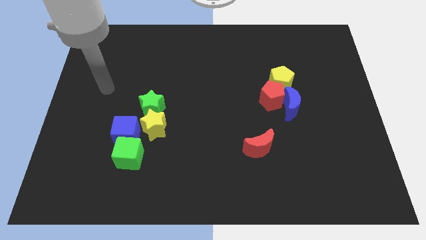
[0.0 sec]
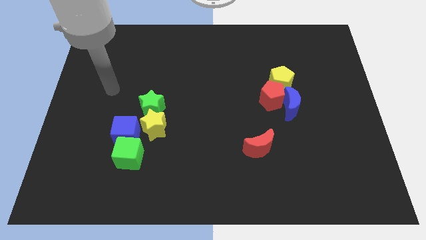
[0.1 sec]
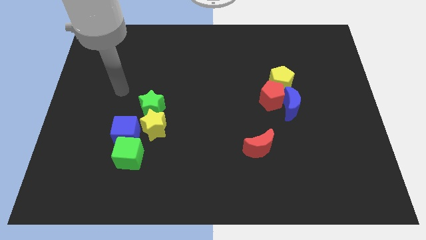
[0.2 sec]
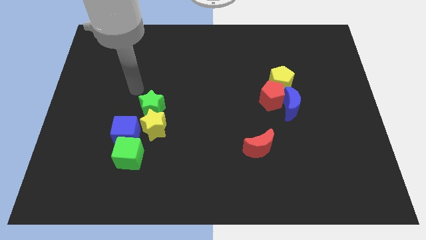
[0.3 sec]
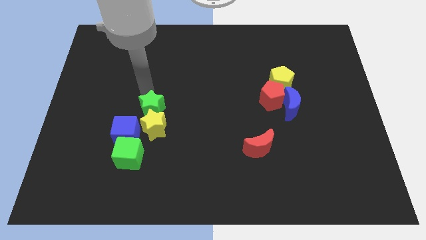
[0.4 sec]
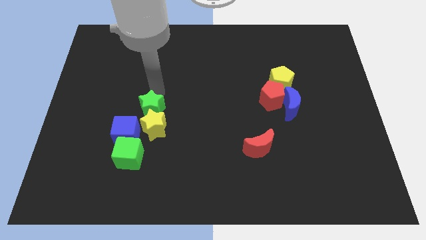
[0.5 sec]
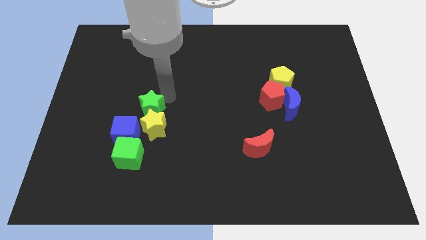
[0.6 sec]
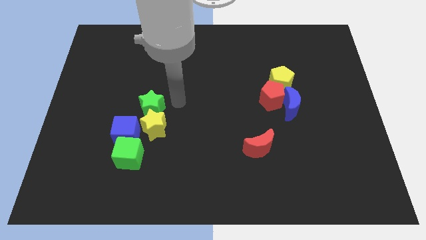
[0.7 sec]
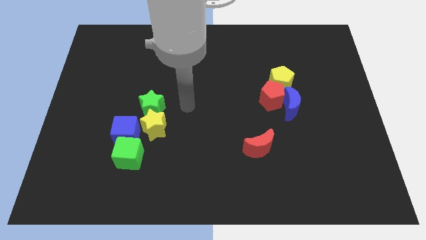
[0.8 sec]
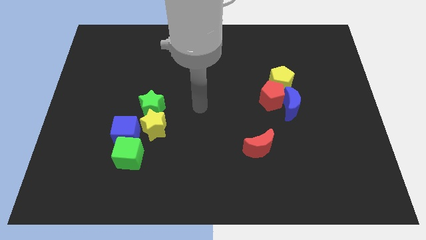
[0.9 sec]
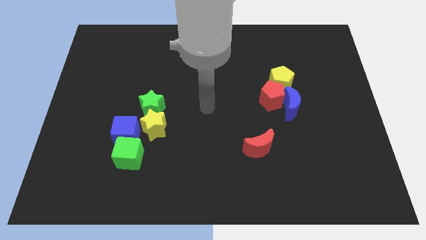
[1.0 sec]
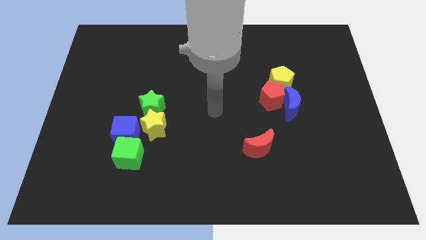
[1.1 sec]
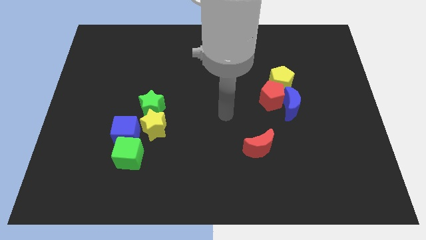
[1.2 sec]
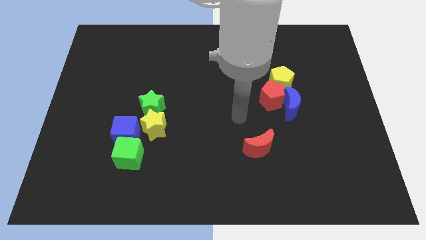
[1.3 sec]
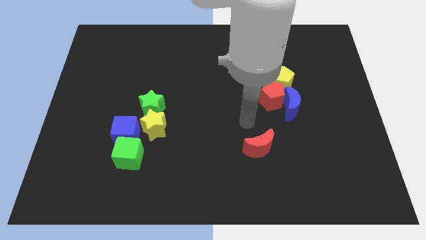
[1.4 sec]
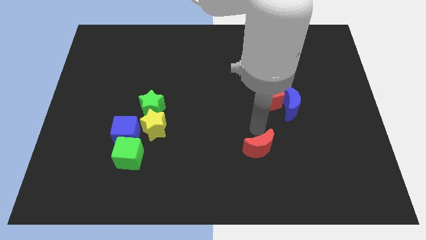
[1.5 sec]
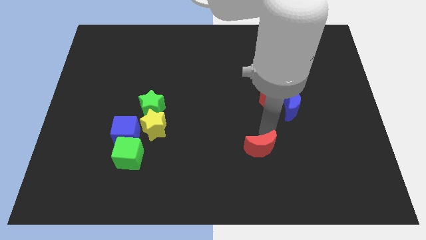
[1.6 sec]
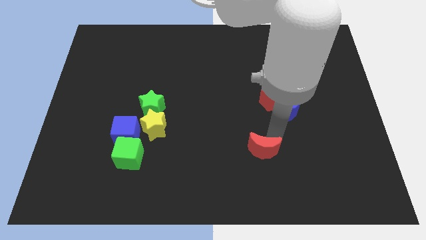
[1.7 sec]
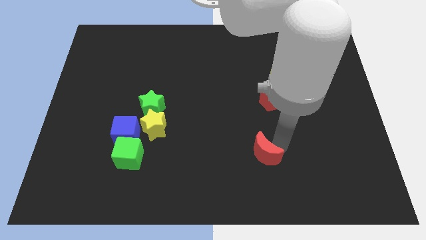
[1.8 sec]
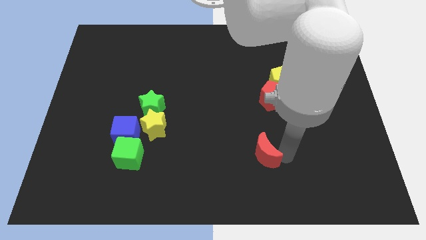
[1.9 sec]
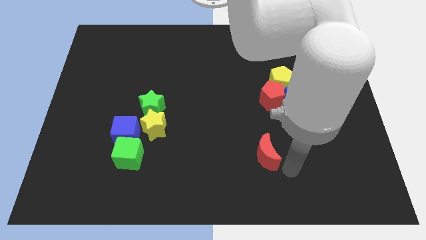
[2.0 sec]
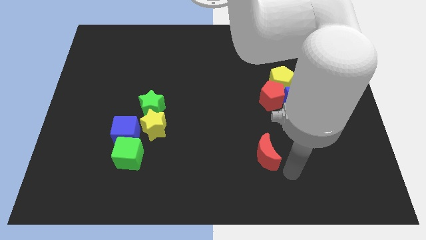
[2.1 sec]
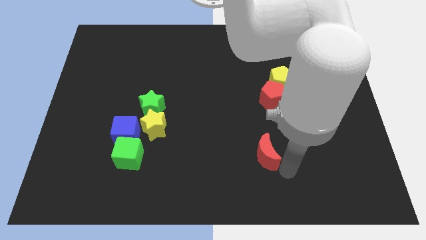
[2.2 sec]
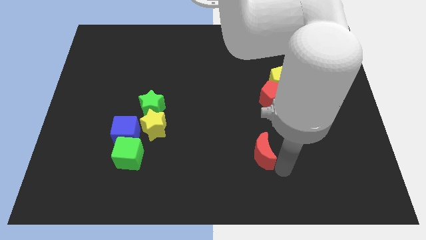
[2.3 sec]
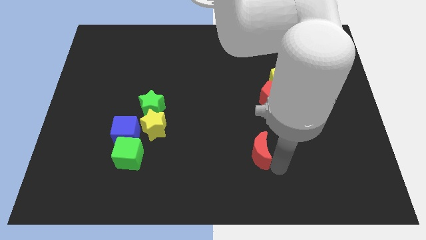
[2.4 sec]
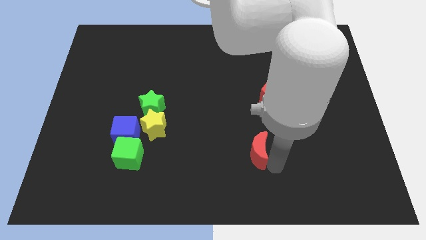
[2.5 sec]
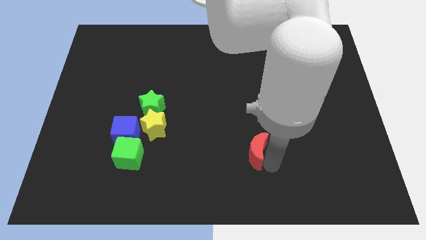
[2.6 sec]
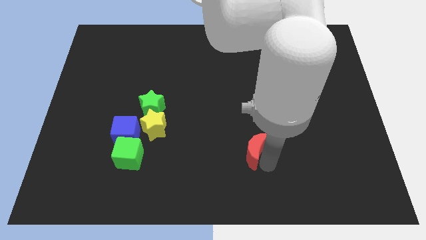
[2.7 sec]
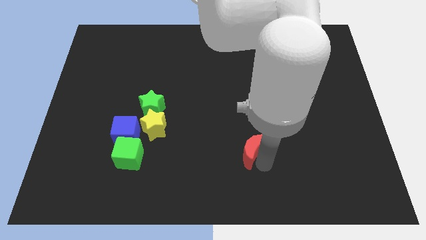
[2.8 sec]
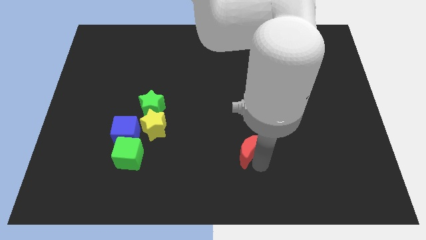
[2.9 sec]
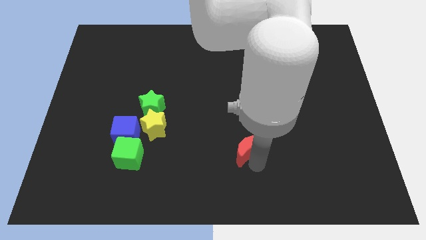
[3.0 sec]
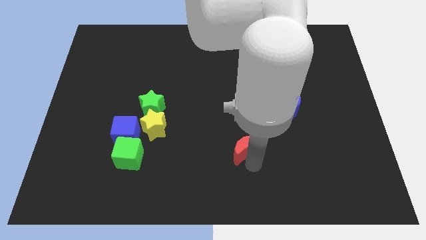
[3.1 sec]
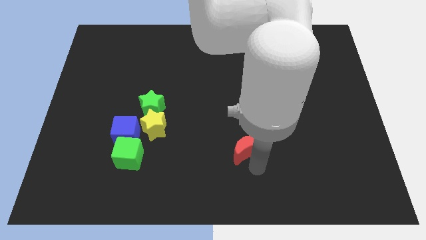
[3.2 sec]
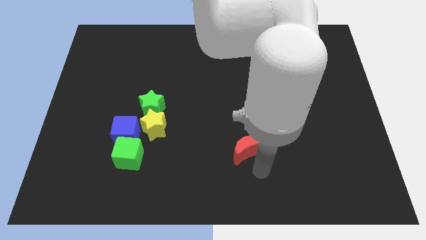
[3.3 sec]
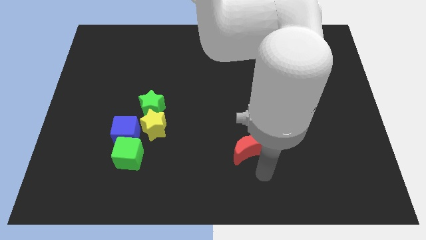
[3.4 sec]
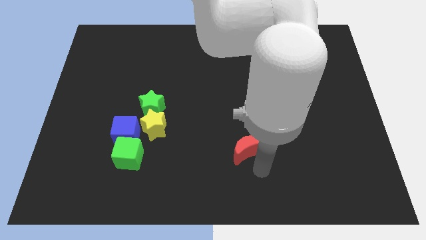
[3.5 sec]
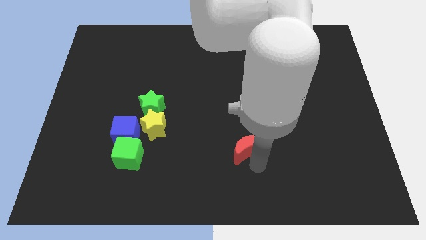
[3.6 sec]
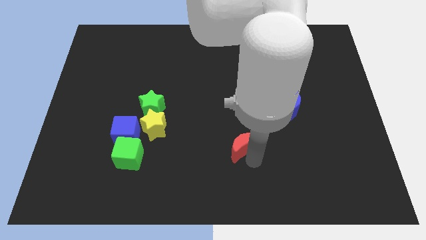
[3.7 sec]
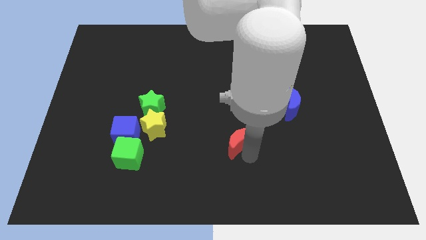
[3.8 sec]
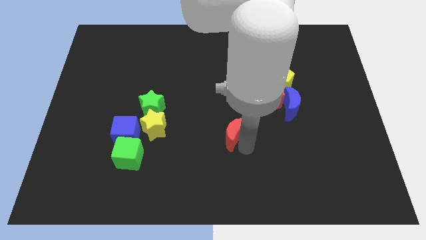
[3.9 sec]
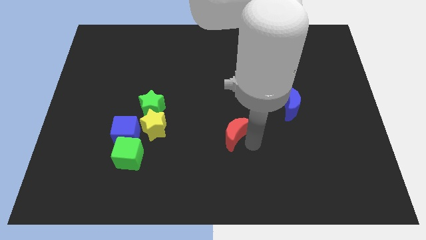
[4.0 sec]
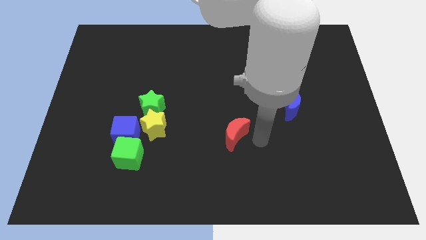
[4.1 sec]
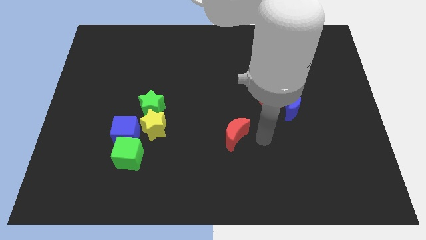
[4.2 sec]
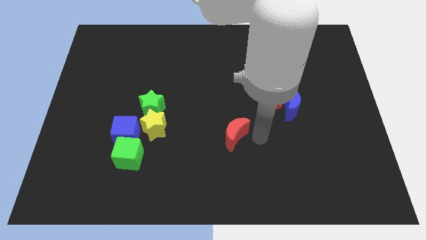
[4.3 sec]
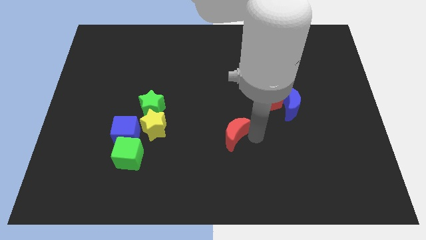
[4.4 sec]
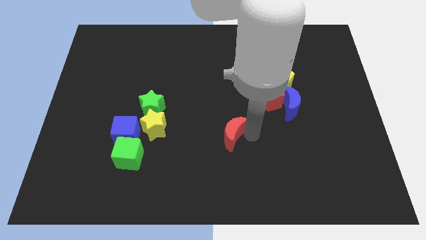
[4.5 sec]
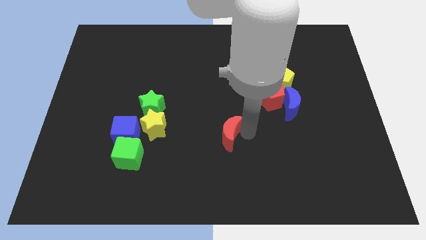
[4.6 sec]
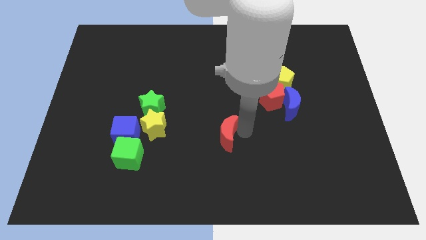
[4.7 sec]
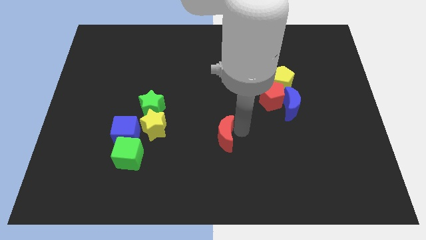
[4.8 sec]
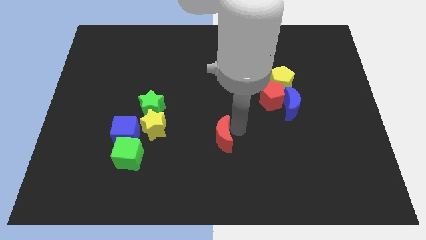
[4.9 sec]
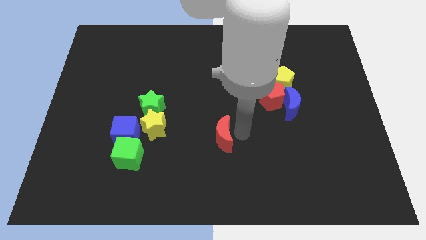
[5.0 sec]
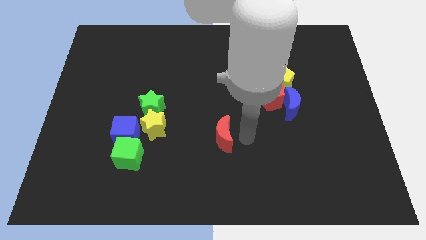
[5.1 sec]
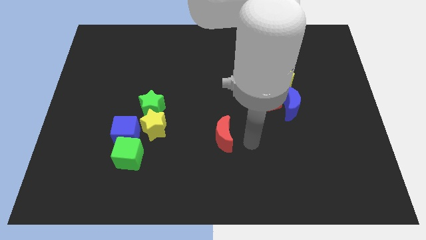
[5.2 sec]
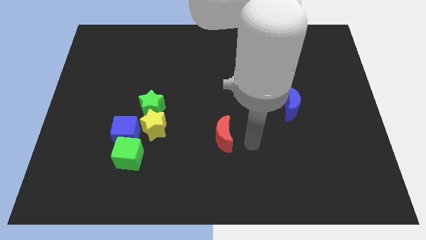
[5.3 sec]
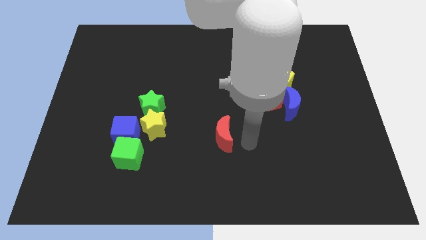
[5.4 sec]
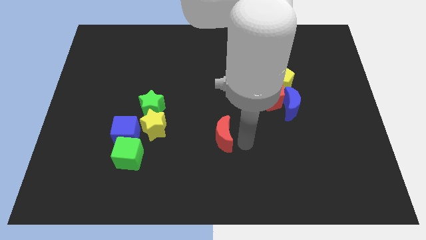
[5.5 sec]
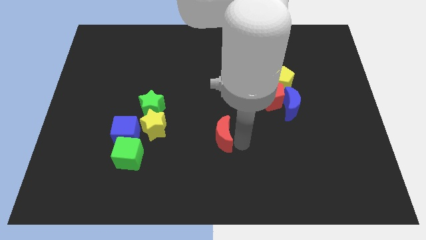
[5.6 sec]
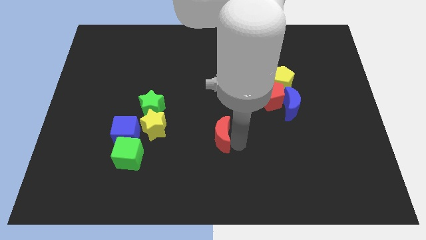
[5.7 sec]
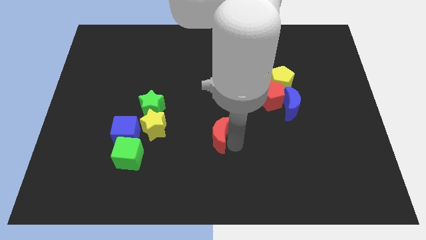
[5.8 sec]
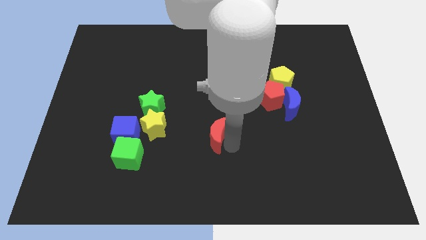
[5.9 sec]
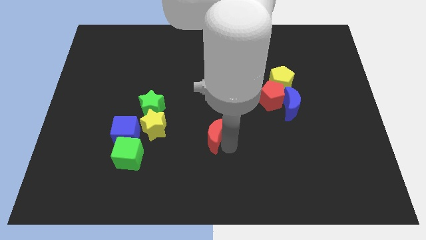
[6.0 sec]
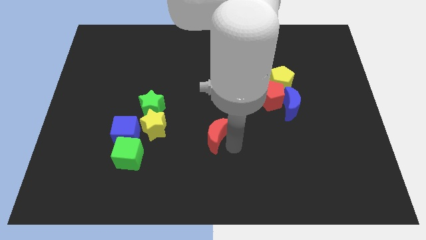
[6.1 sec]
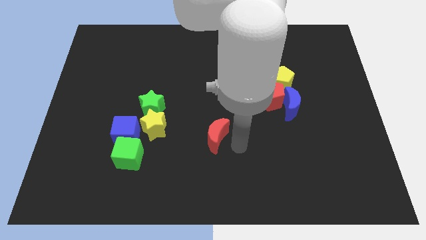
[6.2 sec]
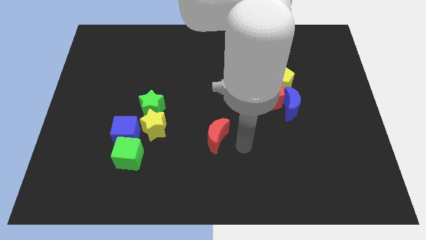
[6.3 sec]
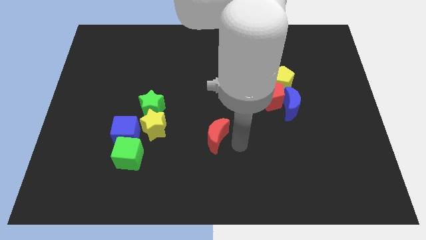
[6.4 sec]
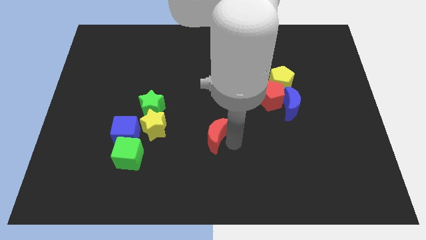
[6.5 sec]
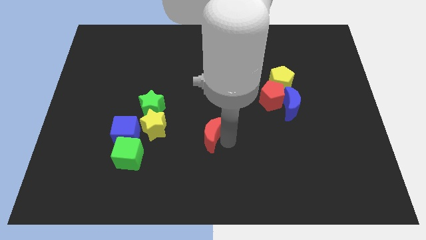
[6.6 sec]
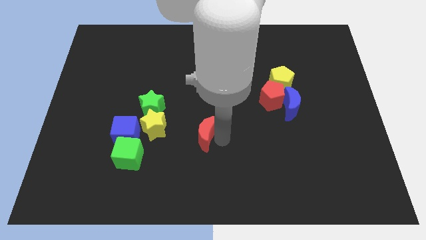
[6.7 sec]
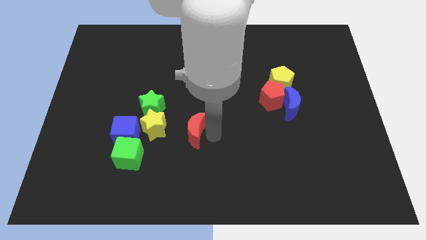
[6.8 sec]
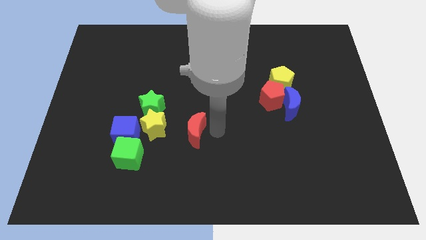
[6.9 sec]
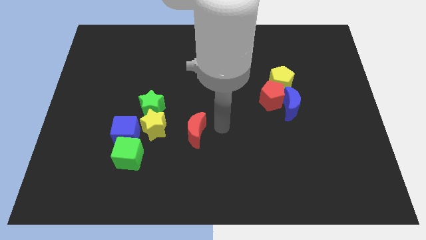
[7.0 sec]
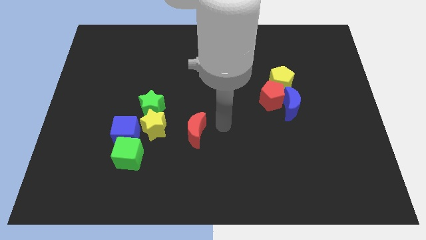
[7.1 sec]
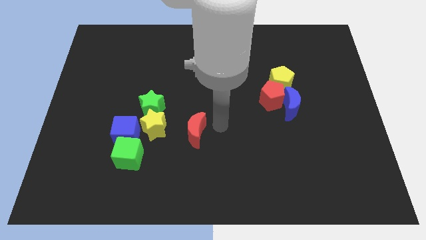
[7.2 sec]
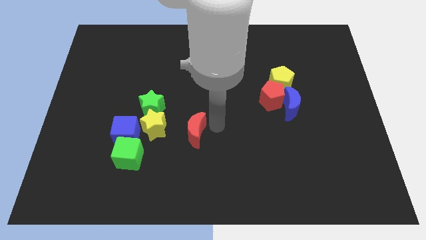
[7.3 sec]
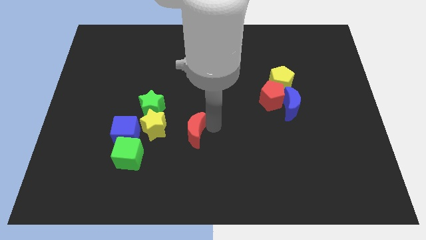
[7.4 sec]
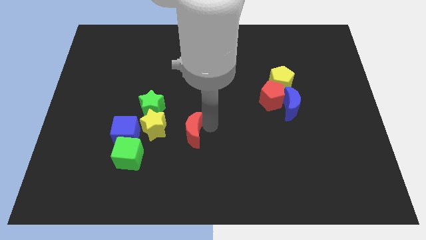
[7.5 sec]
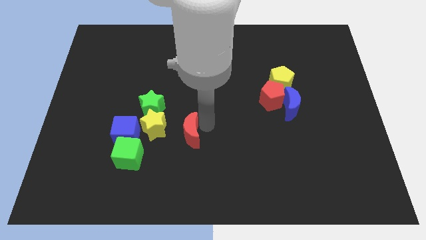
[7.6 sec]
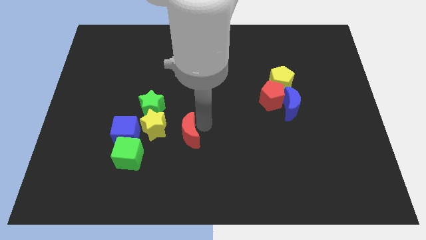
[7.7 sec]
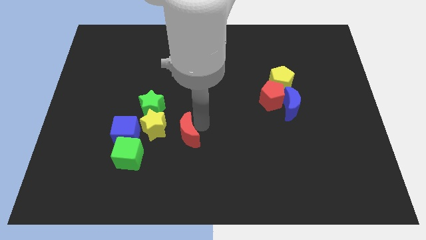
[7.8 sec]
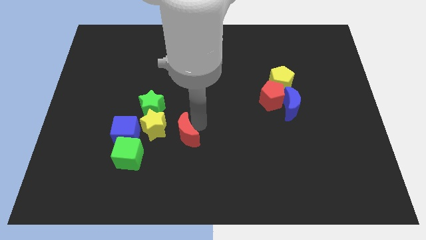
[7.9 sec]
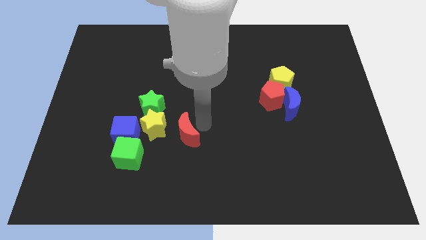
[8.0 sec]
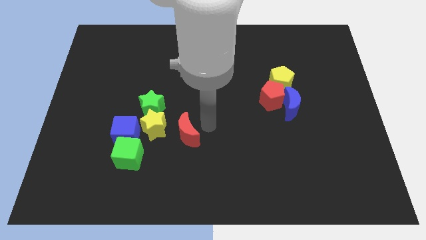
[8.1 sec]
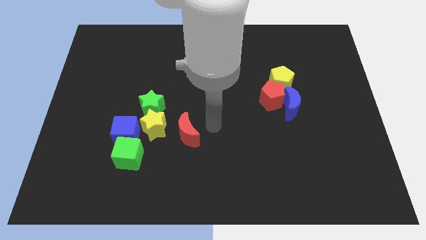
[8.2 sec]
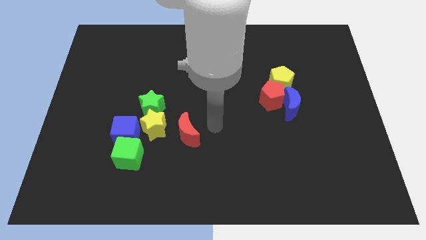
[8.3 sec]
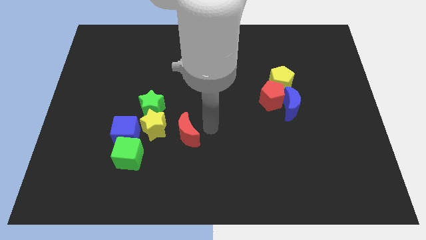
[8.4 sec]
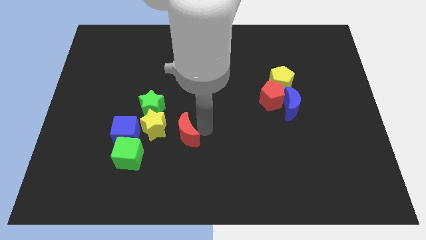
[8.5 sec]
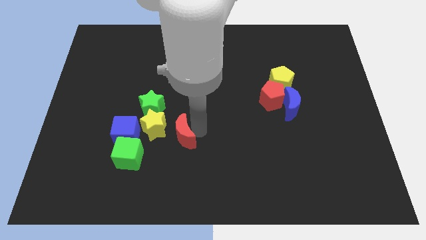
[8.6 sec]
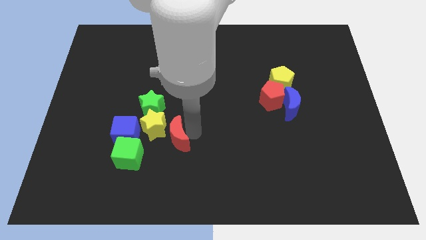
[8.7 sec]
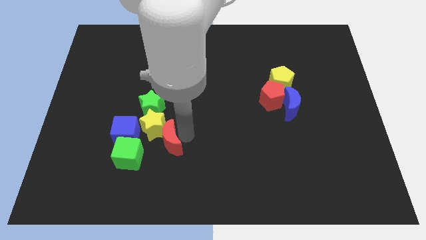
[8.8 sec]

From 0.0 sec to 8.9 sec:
put the red moon to the bottom of the green star

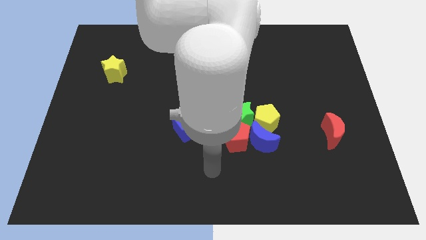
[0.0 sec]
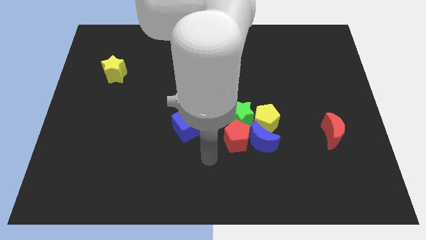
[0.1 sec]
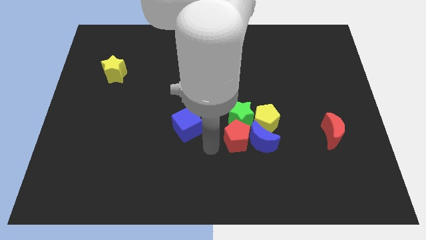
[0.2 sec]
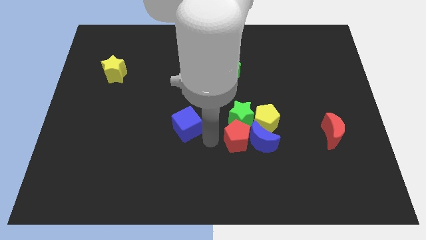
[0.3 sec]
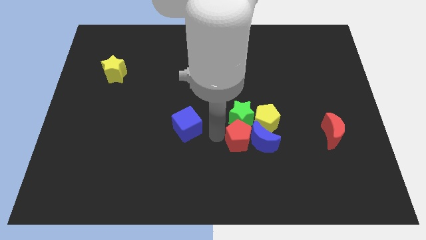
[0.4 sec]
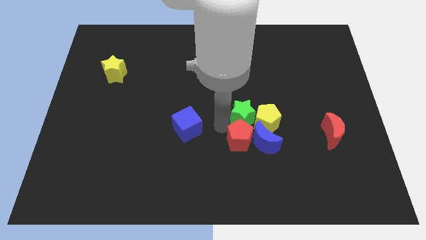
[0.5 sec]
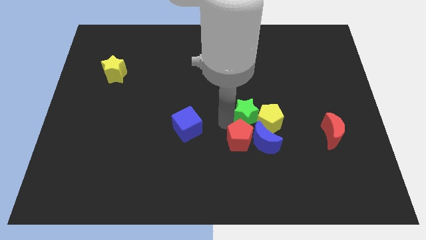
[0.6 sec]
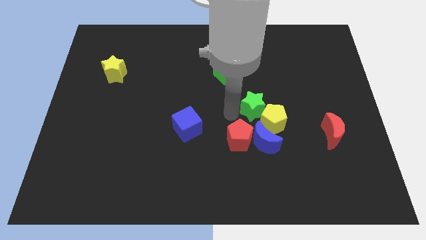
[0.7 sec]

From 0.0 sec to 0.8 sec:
move the yellow pentagon to the bottom of the green star
